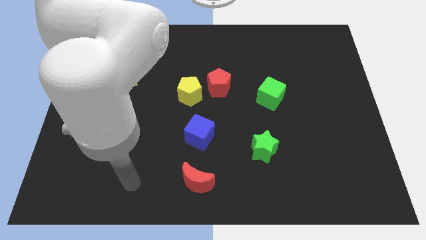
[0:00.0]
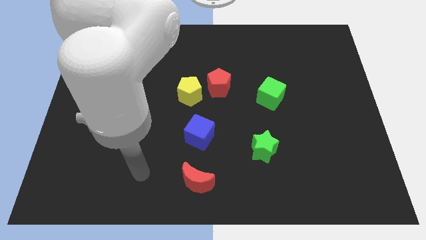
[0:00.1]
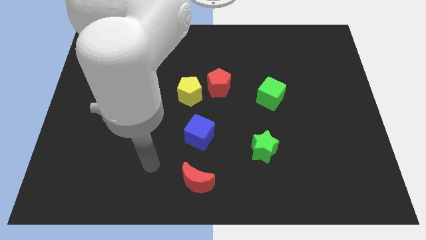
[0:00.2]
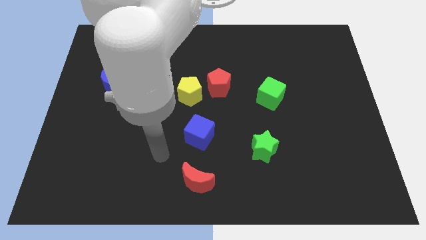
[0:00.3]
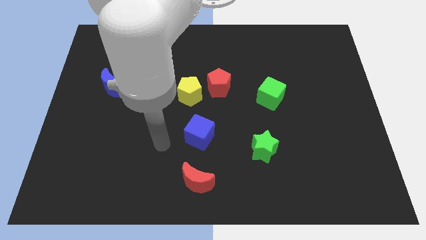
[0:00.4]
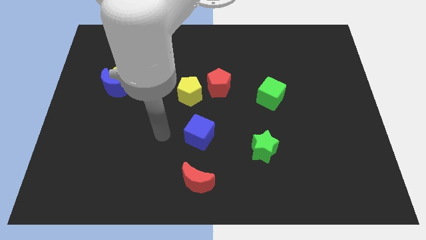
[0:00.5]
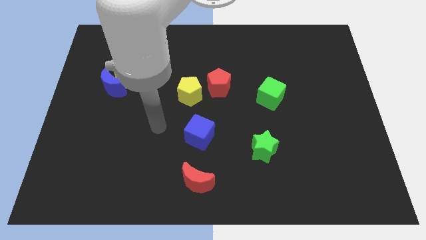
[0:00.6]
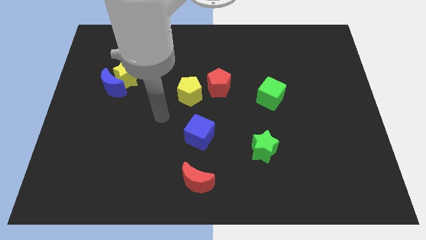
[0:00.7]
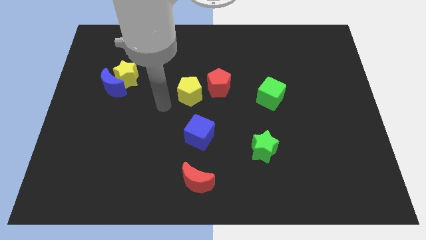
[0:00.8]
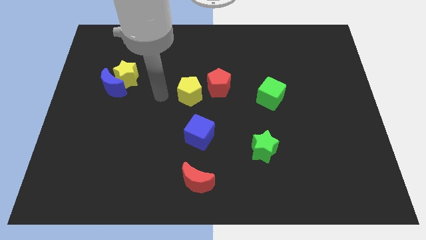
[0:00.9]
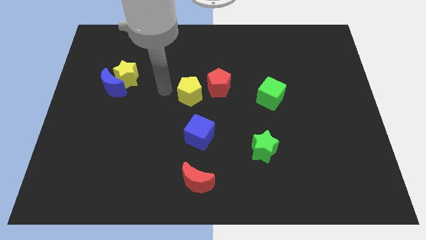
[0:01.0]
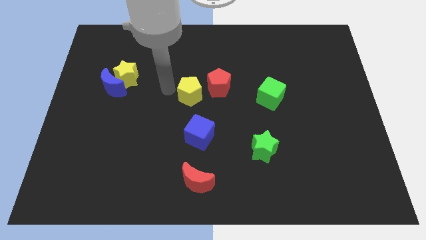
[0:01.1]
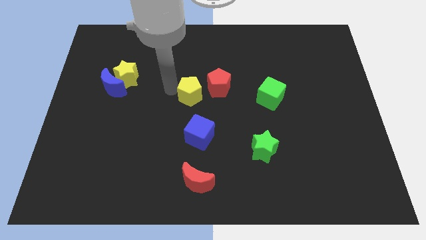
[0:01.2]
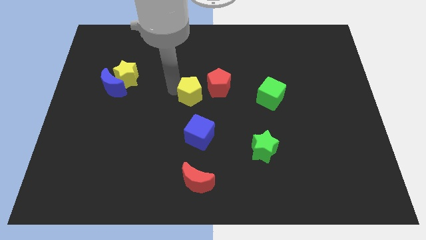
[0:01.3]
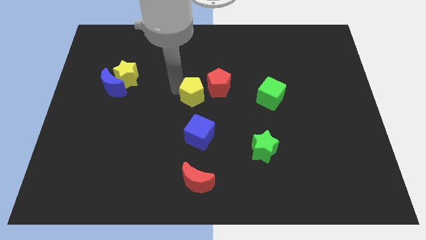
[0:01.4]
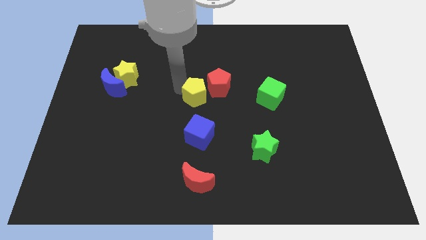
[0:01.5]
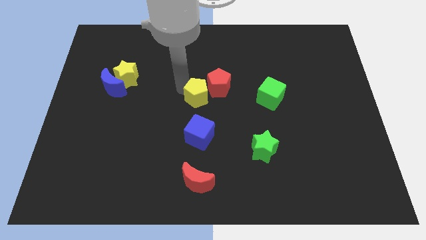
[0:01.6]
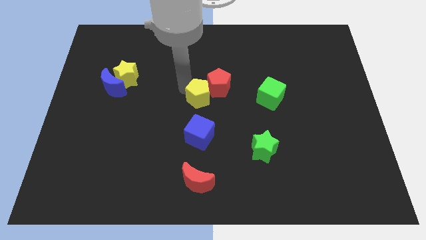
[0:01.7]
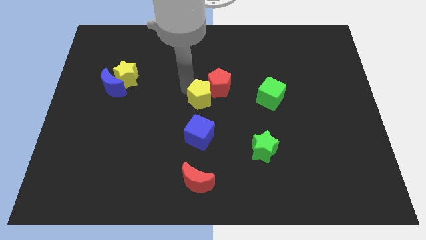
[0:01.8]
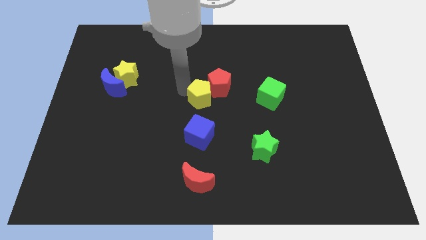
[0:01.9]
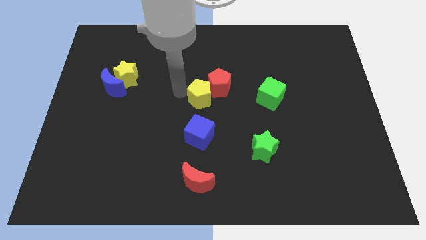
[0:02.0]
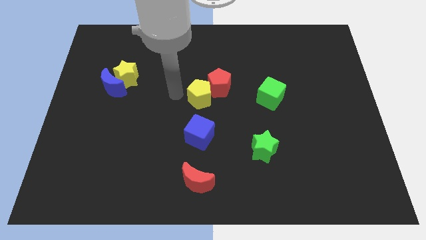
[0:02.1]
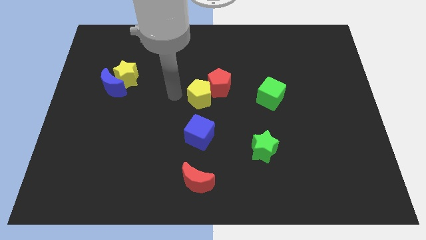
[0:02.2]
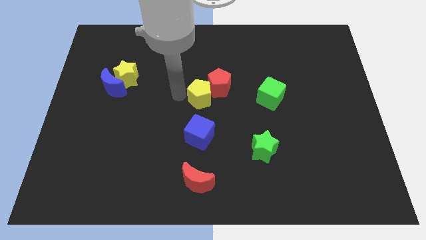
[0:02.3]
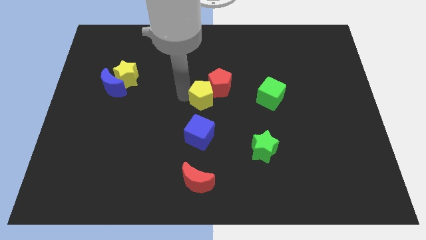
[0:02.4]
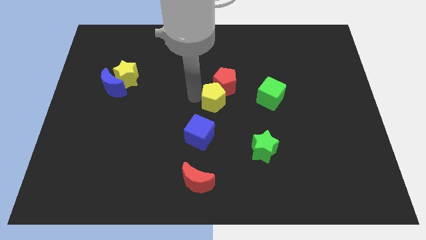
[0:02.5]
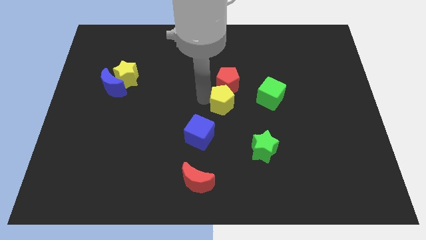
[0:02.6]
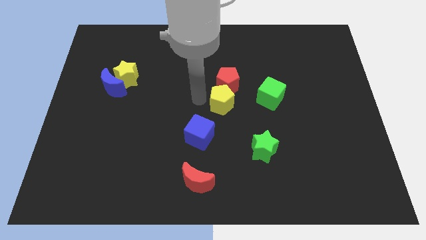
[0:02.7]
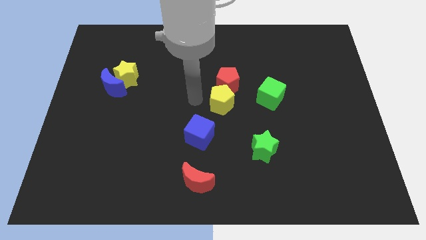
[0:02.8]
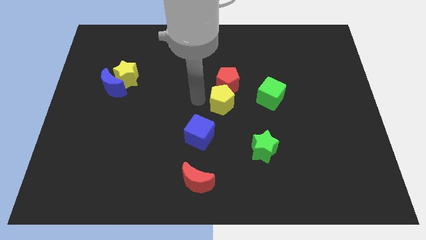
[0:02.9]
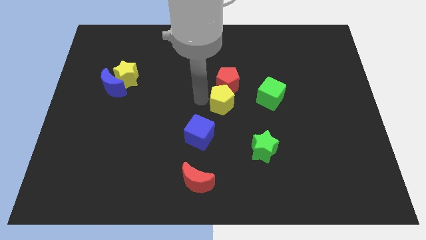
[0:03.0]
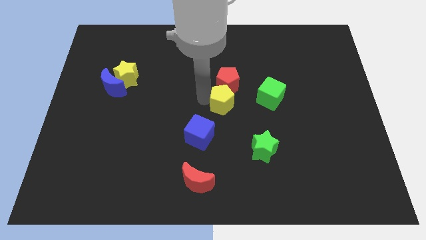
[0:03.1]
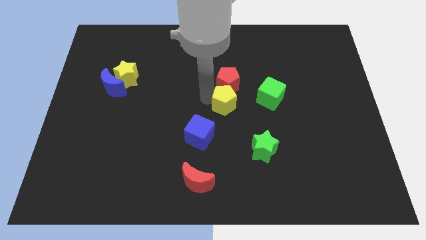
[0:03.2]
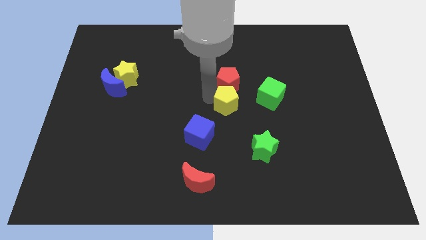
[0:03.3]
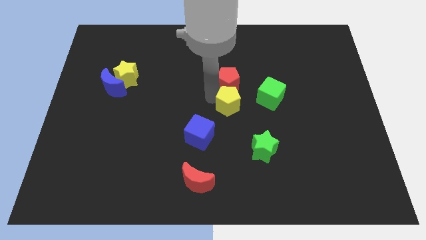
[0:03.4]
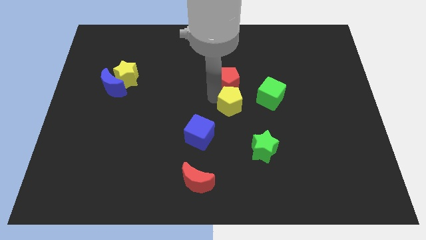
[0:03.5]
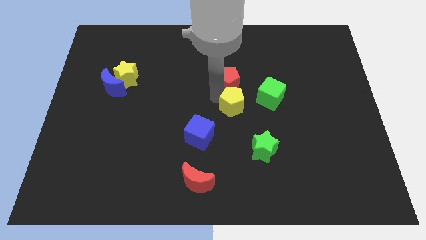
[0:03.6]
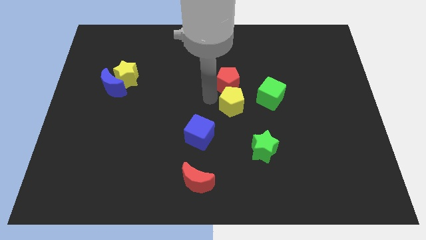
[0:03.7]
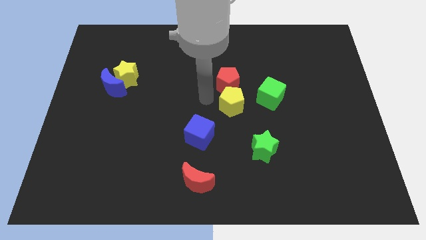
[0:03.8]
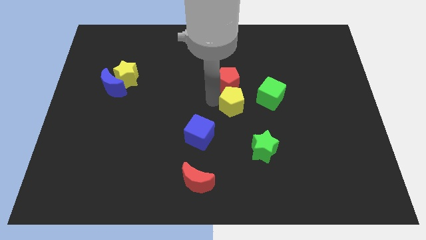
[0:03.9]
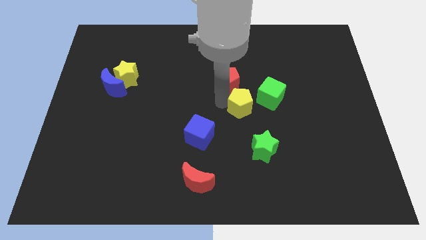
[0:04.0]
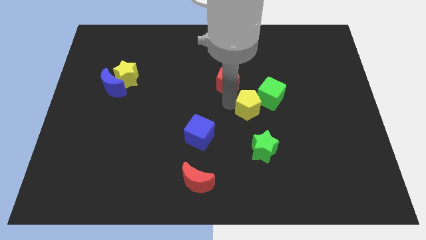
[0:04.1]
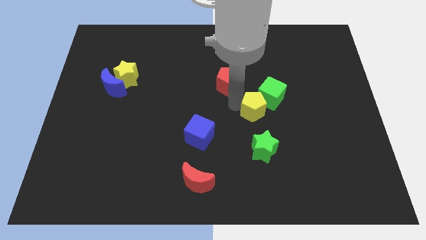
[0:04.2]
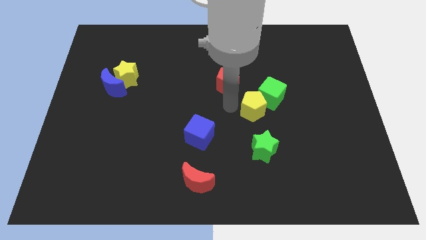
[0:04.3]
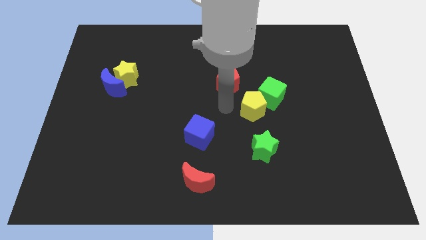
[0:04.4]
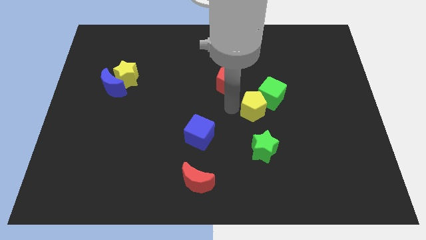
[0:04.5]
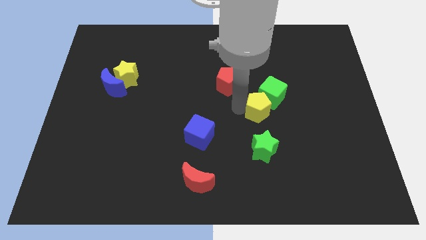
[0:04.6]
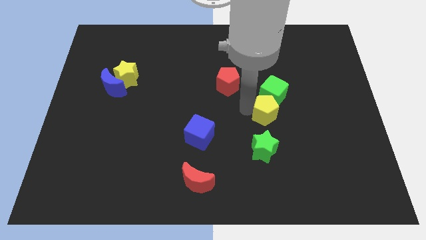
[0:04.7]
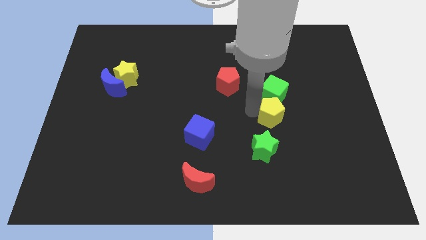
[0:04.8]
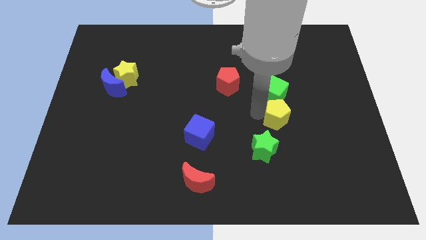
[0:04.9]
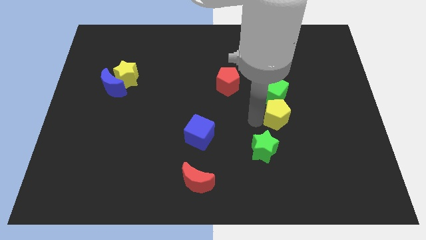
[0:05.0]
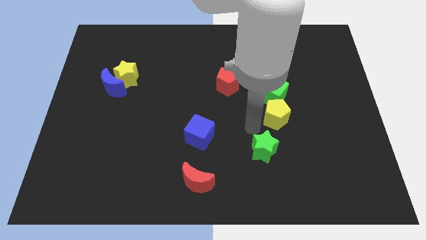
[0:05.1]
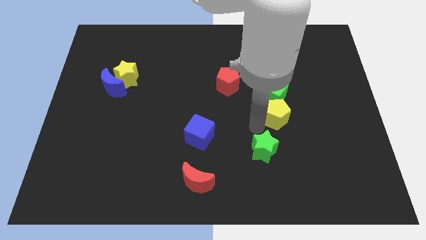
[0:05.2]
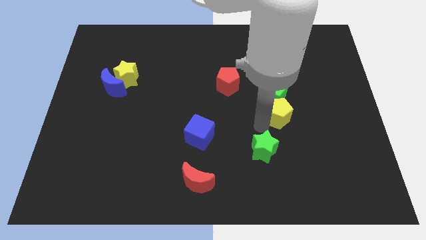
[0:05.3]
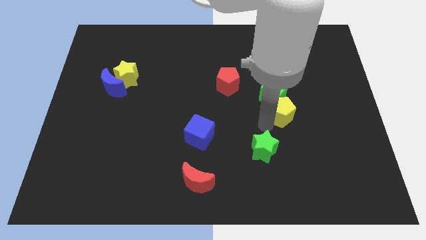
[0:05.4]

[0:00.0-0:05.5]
slide the yellow pentagon to the right

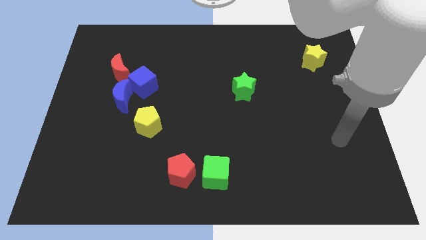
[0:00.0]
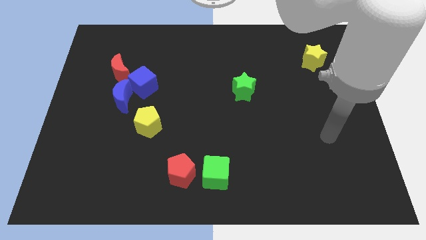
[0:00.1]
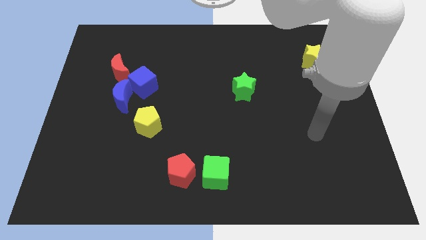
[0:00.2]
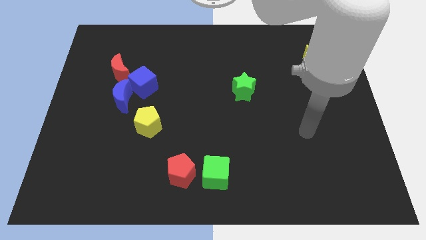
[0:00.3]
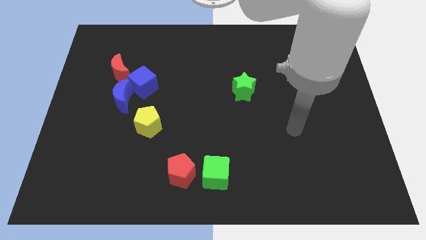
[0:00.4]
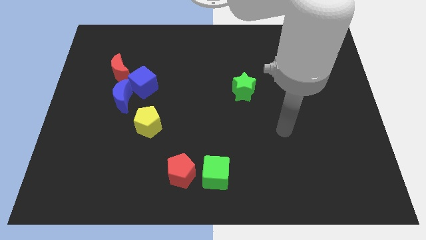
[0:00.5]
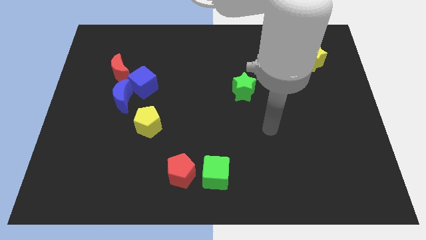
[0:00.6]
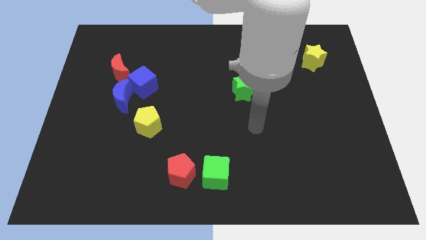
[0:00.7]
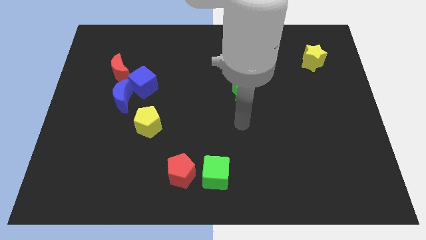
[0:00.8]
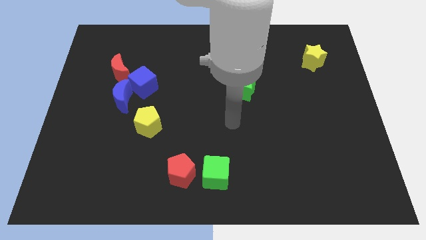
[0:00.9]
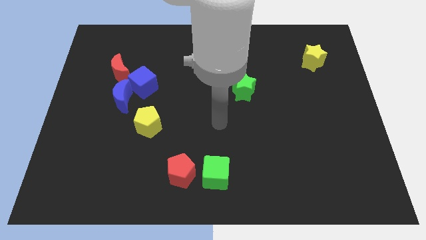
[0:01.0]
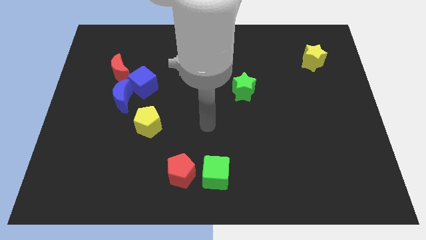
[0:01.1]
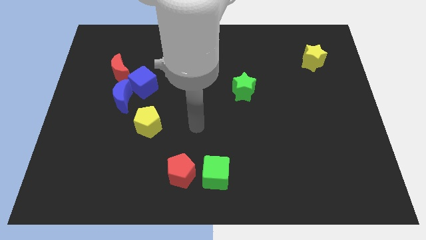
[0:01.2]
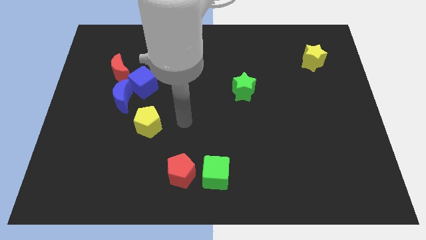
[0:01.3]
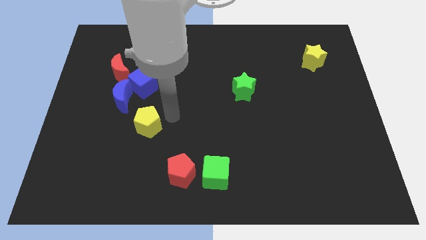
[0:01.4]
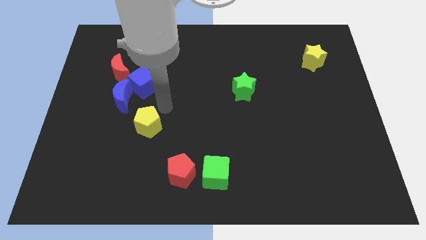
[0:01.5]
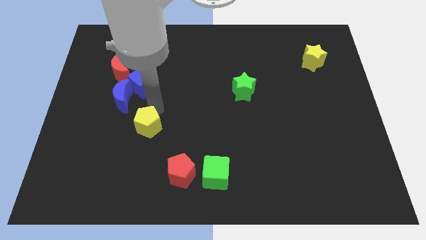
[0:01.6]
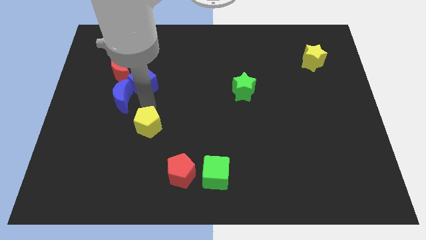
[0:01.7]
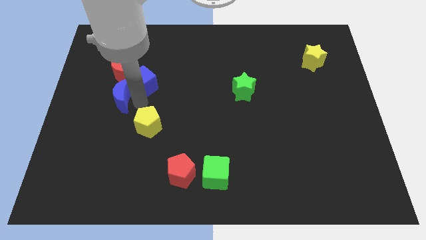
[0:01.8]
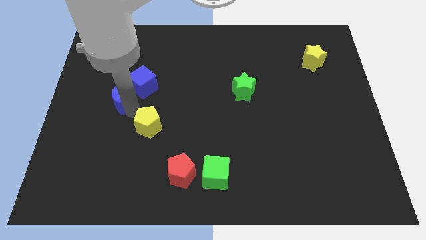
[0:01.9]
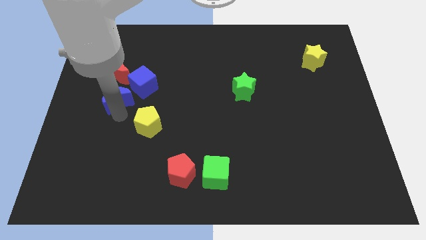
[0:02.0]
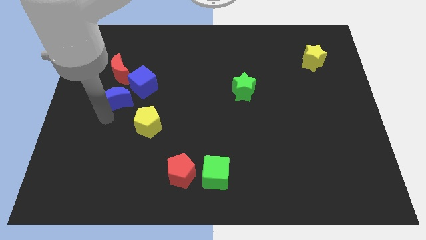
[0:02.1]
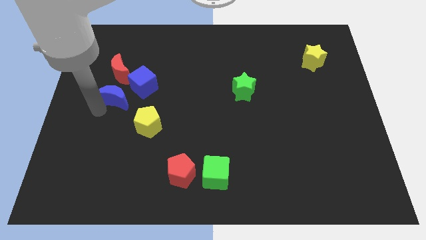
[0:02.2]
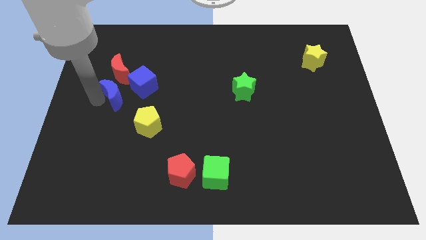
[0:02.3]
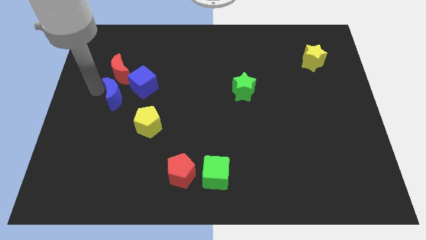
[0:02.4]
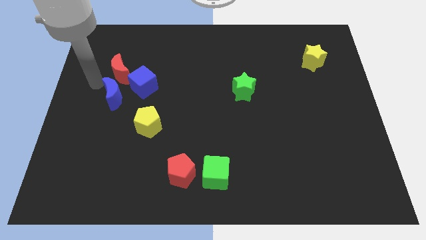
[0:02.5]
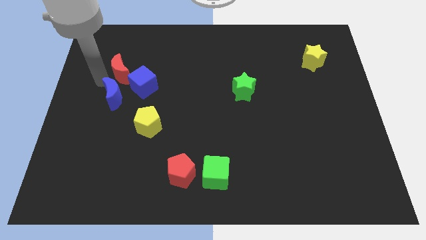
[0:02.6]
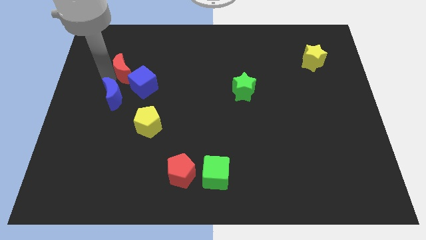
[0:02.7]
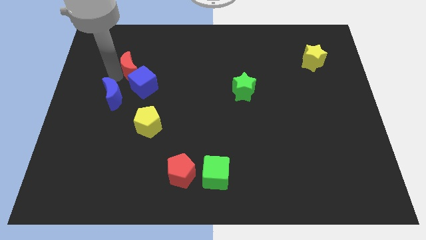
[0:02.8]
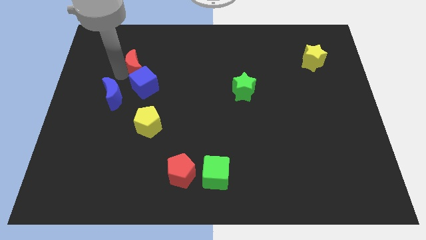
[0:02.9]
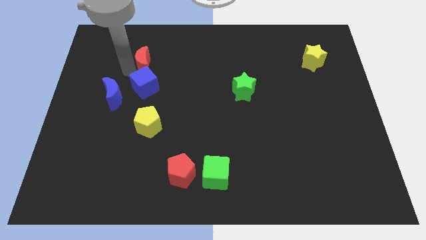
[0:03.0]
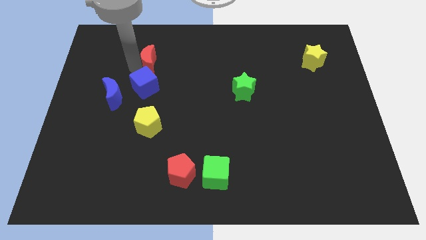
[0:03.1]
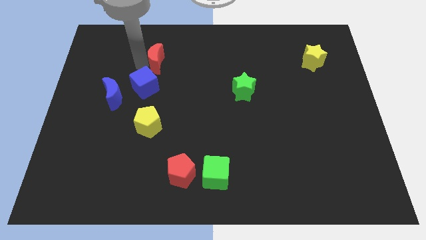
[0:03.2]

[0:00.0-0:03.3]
slide the red moon slightly right
